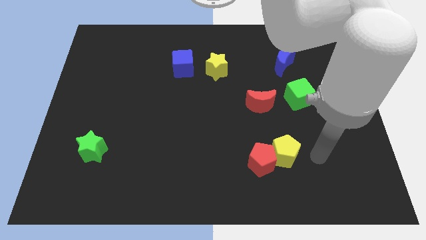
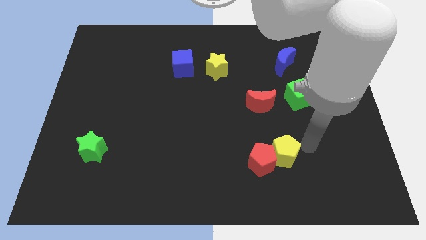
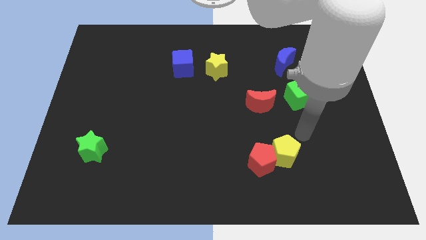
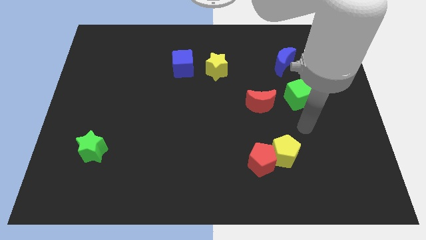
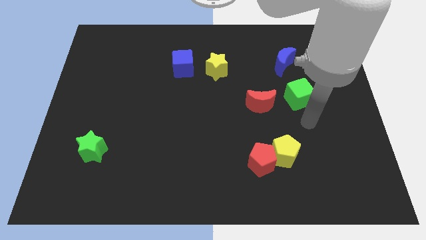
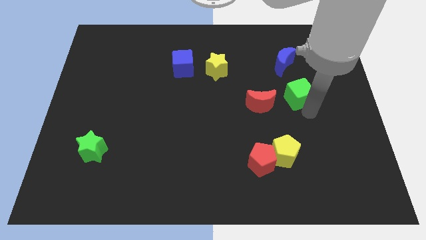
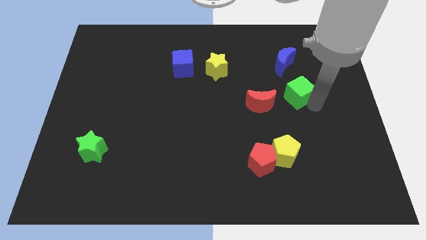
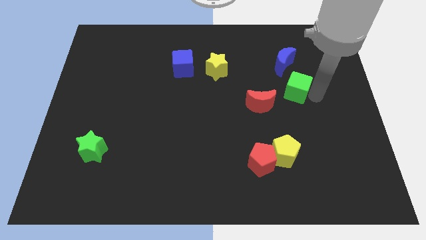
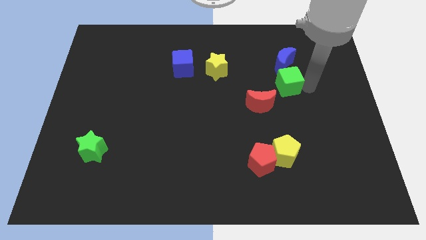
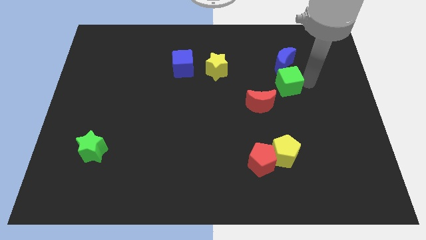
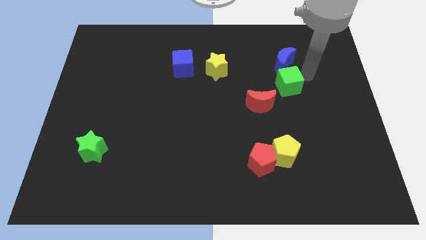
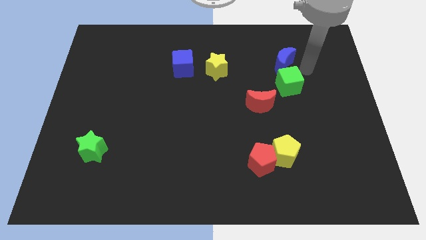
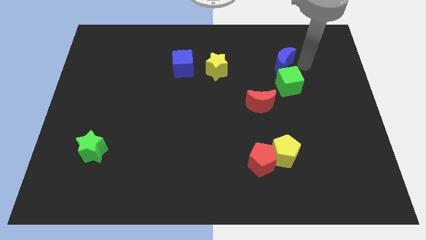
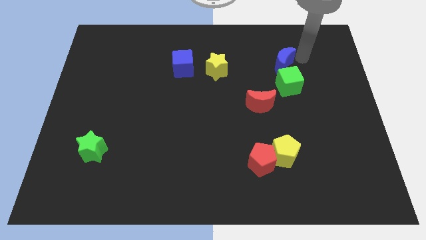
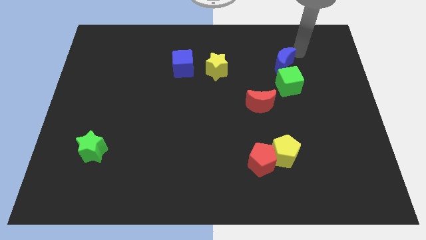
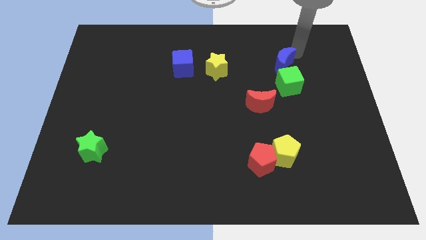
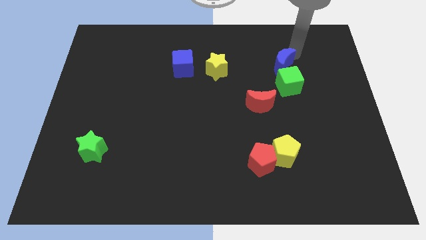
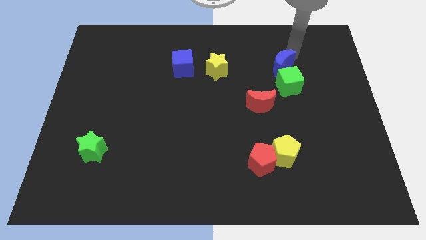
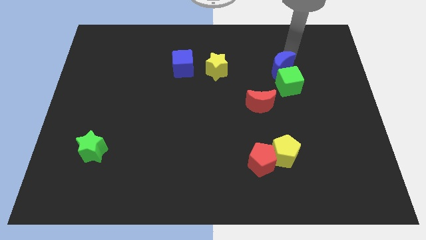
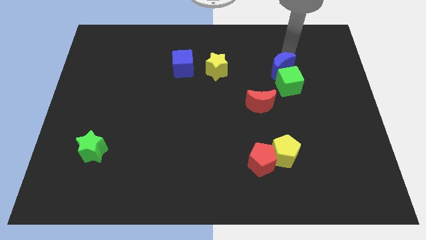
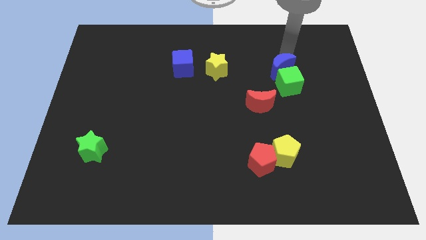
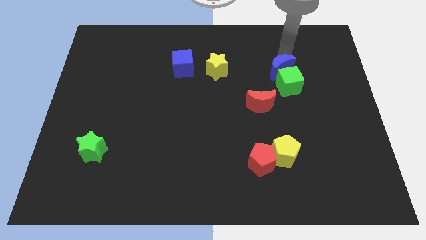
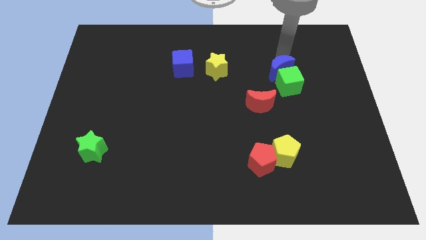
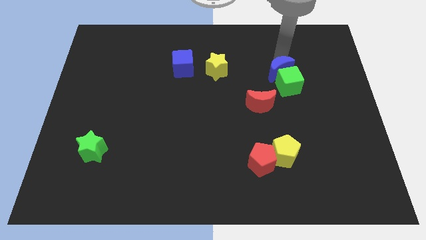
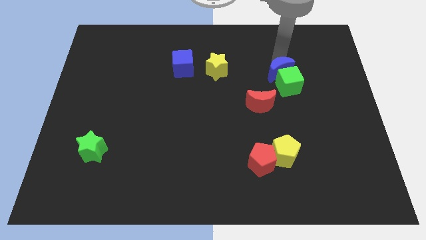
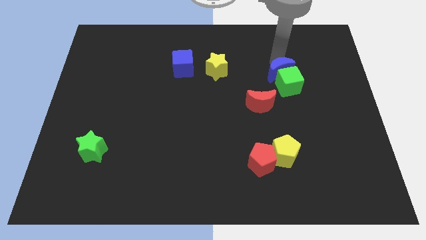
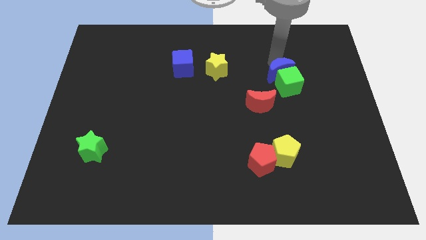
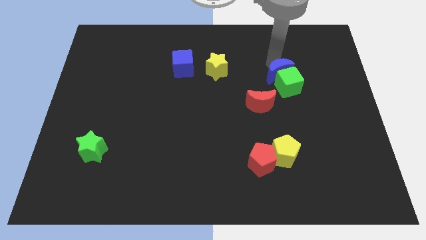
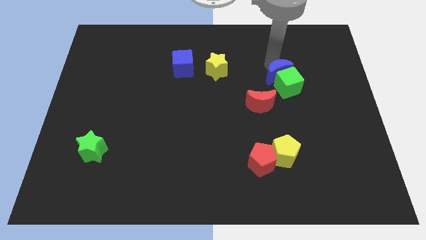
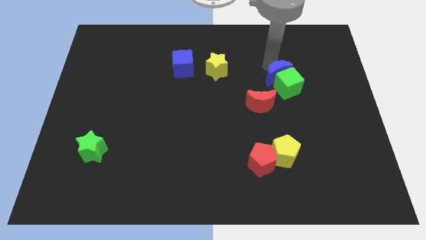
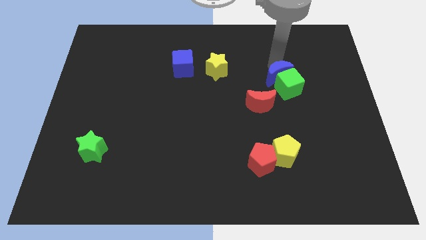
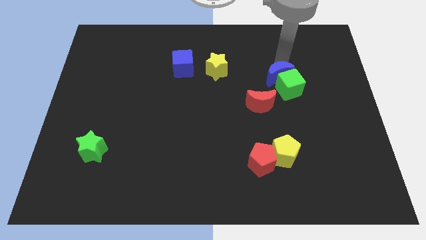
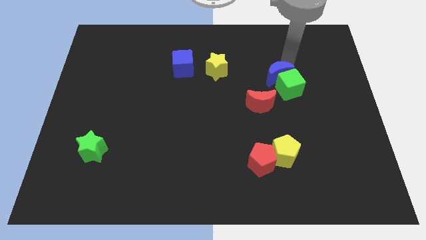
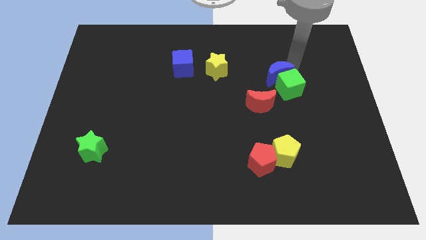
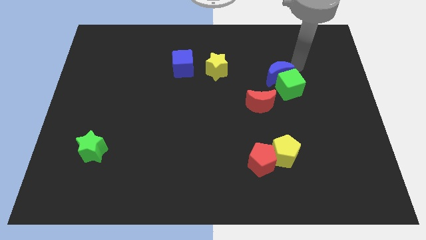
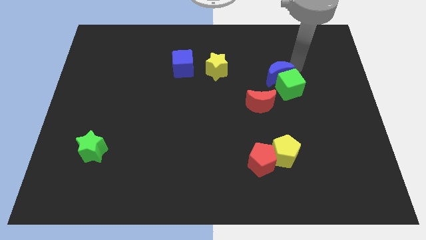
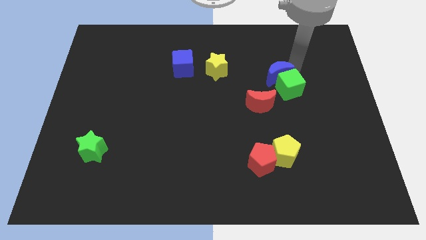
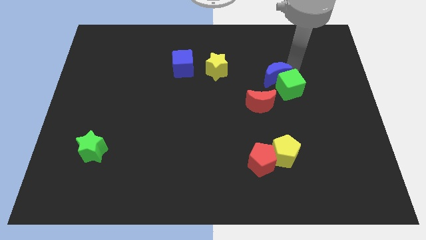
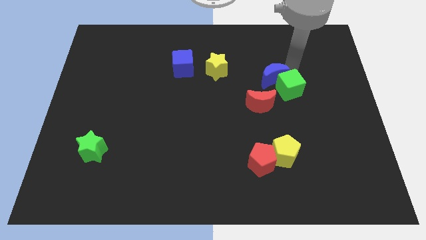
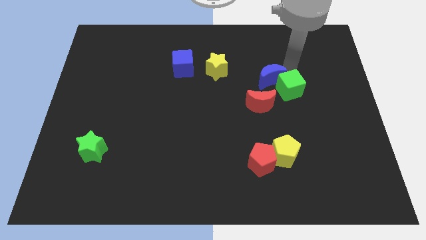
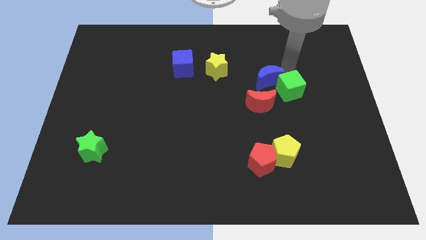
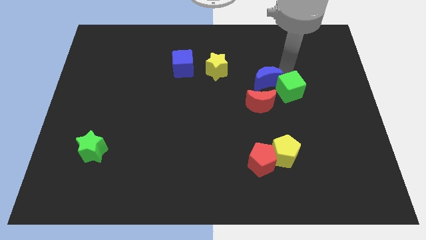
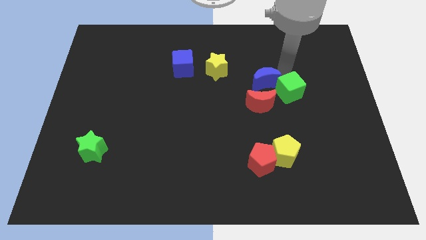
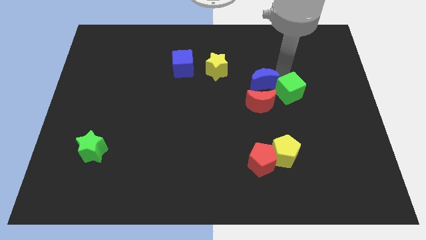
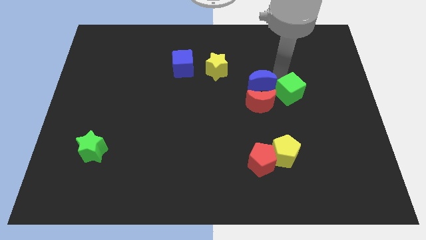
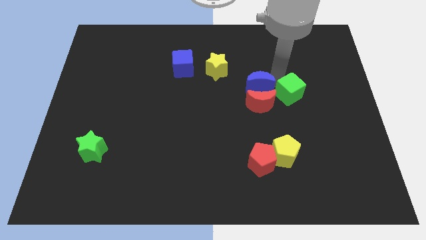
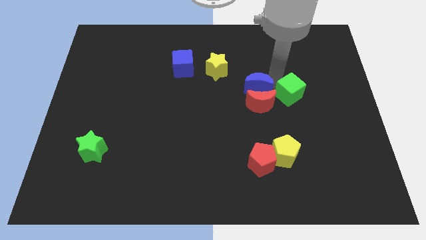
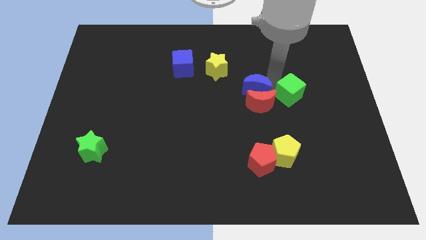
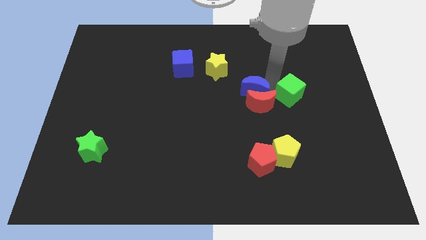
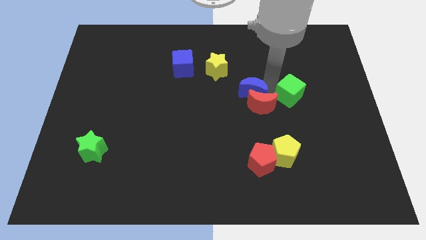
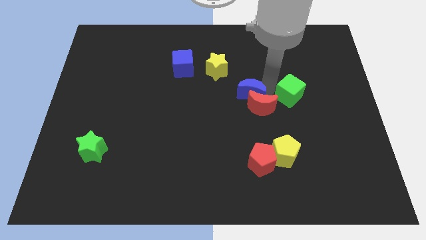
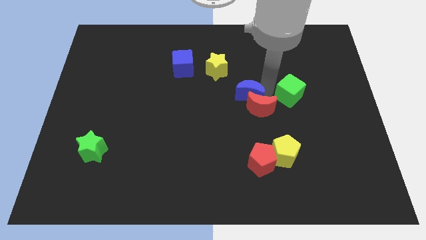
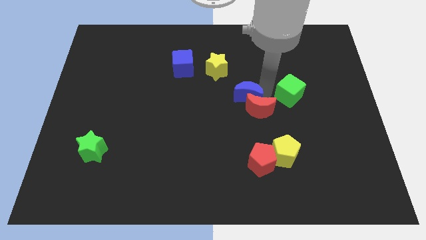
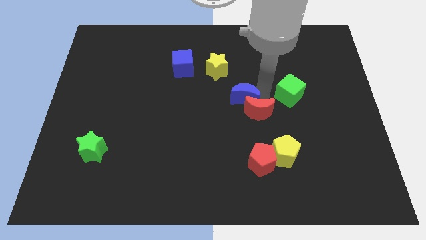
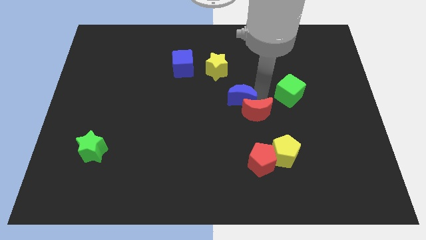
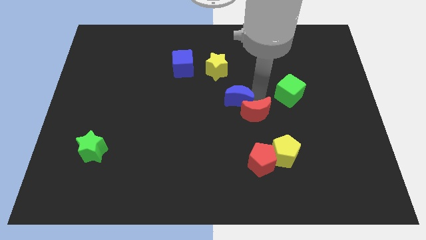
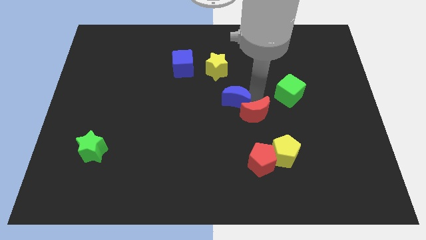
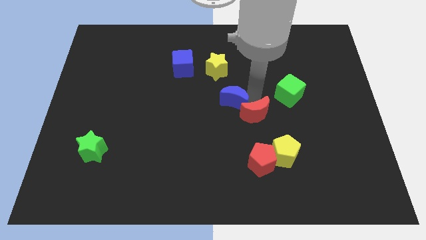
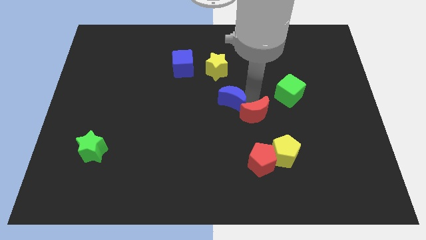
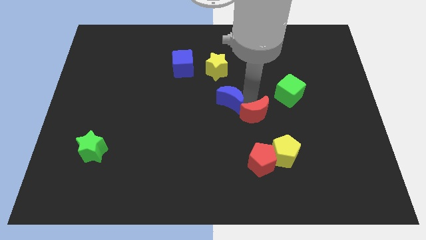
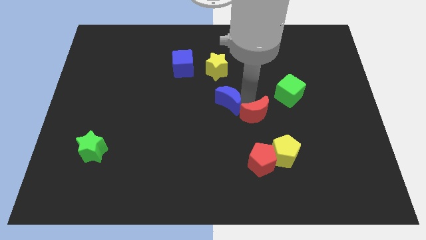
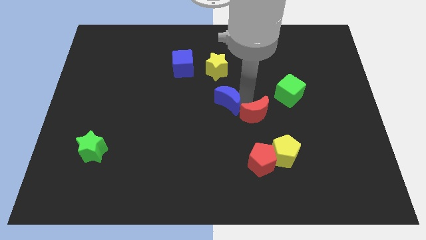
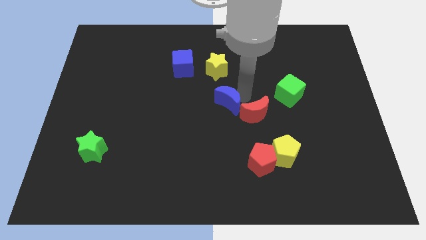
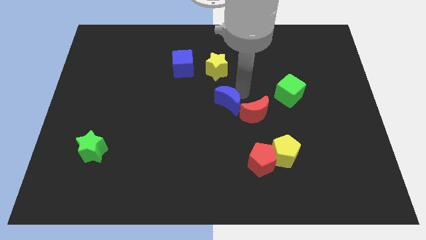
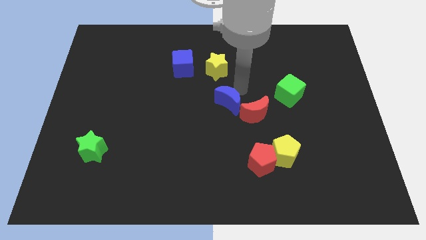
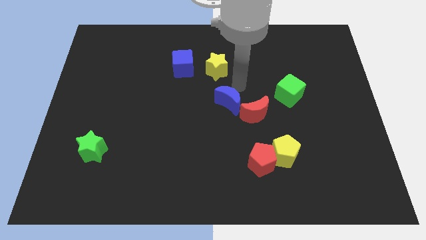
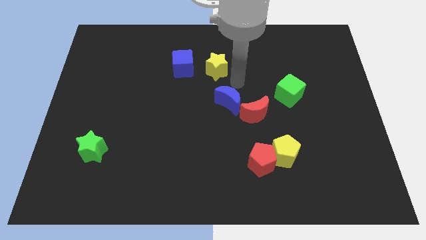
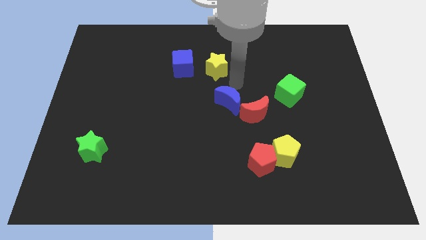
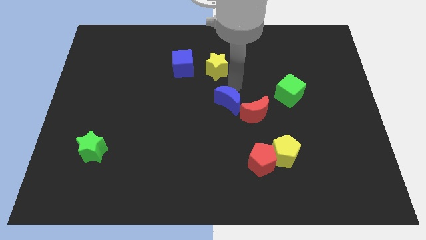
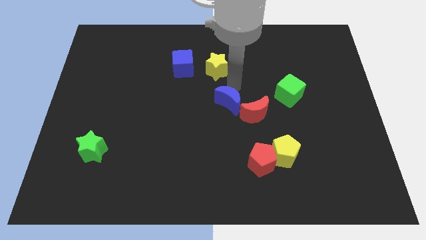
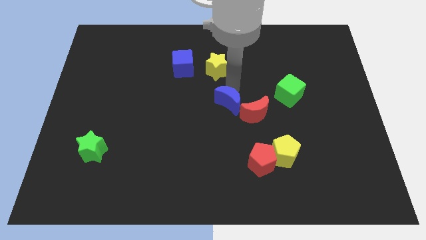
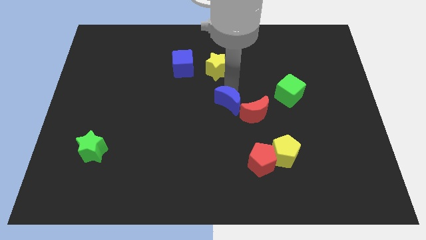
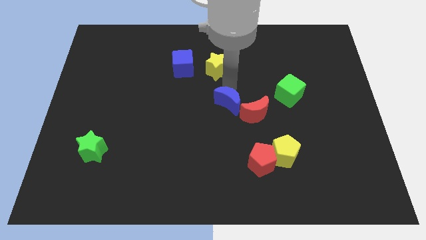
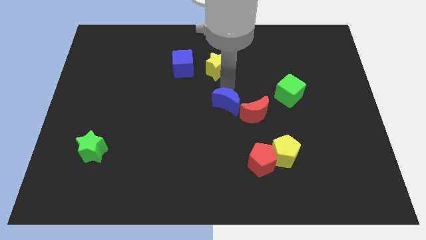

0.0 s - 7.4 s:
slide the blue moon downwards and then left

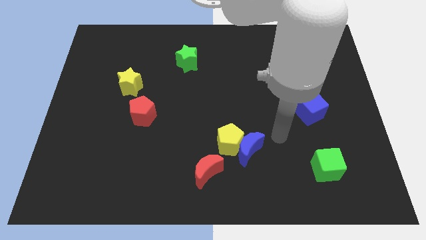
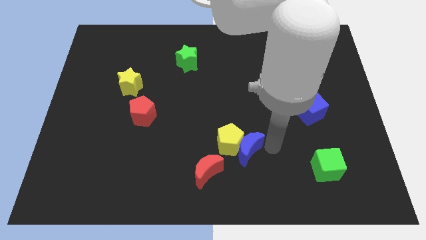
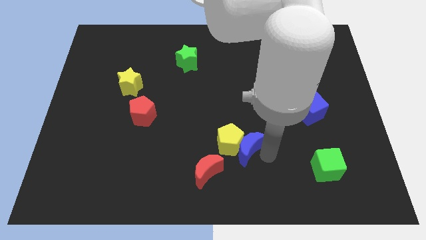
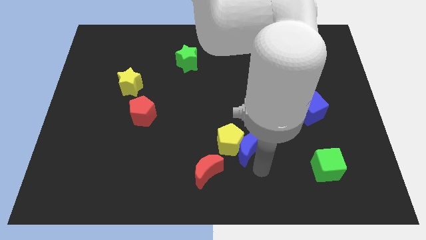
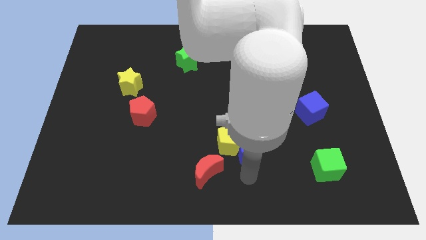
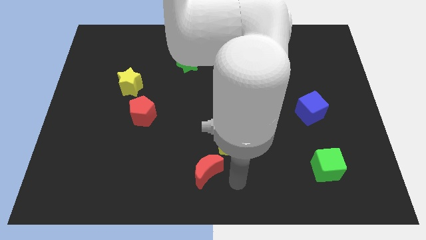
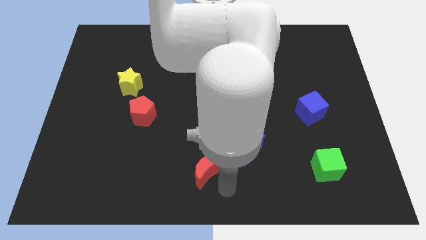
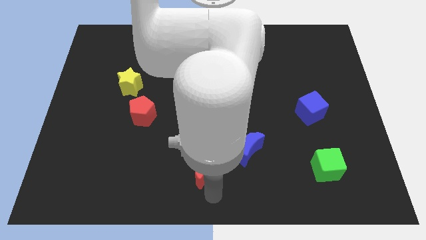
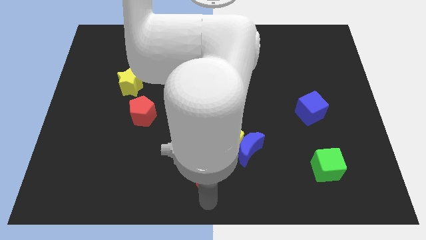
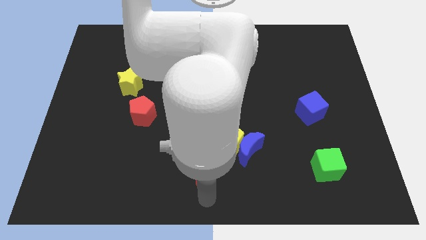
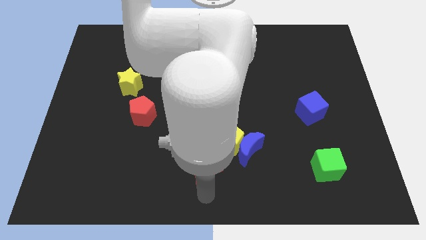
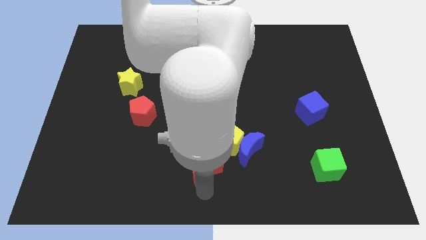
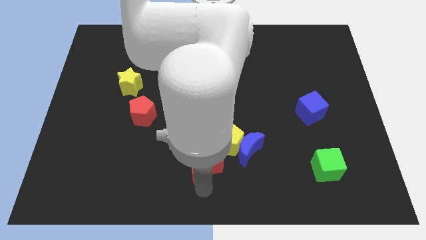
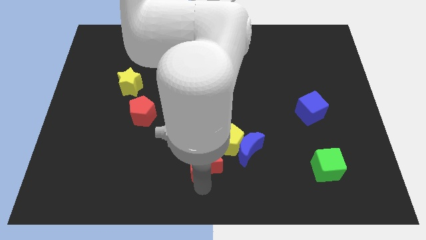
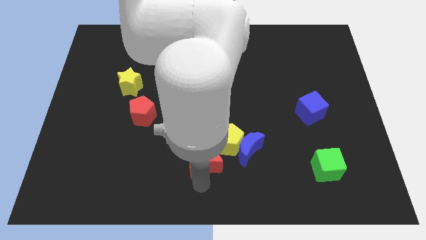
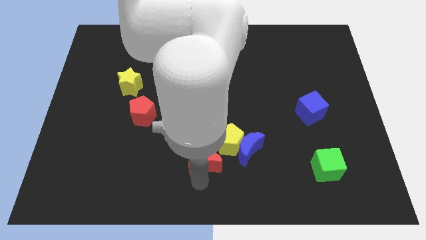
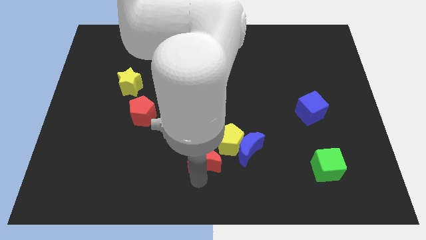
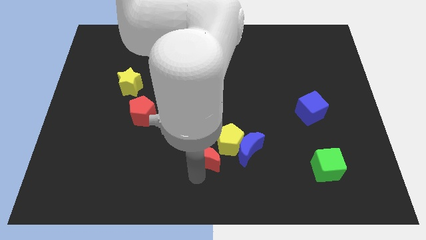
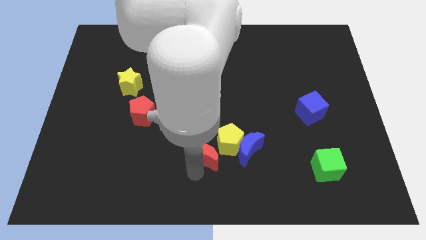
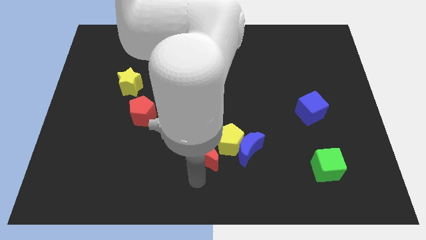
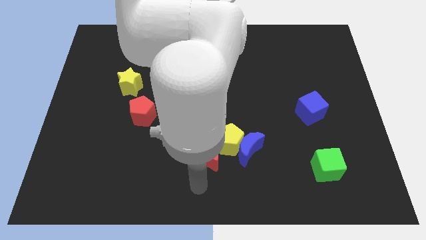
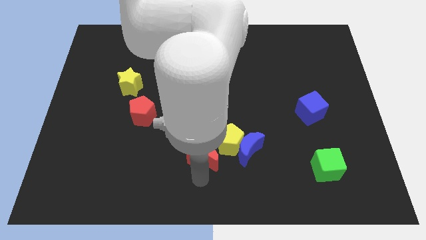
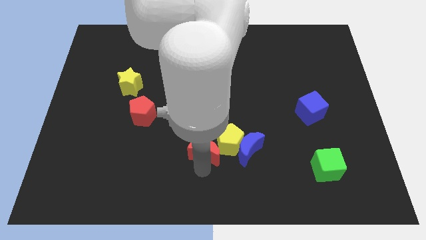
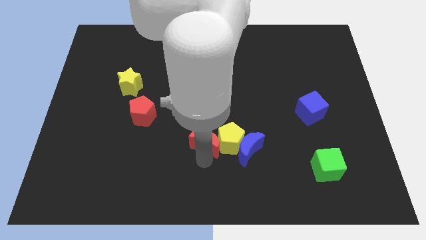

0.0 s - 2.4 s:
slightly push the red moon upwards
